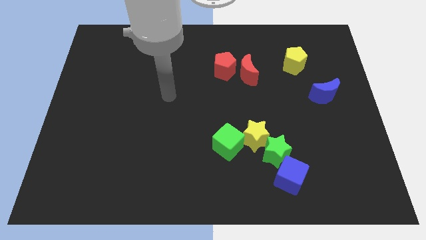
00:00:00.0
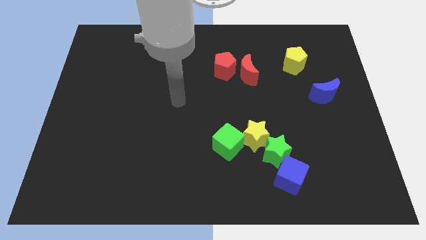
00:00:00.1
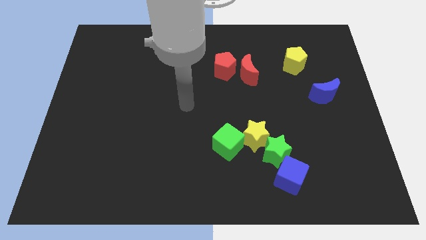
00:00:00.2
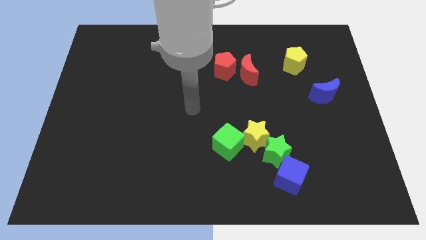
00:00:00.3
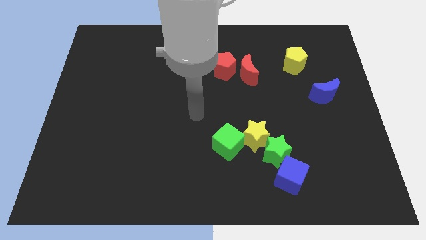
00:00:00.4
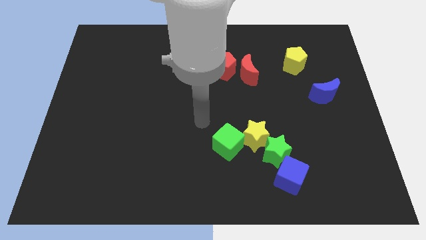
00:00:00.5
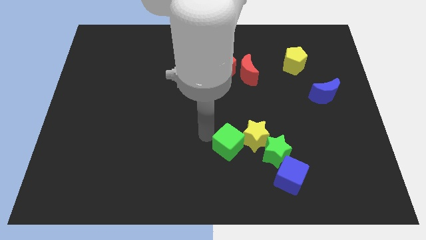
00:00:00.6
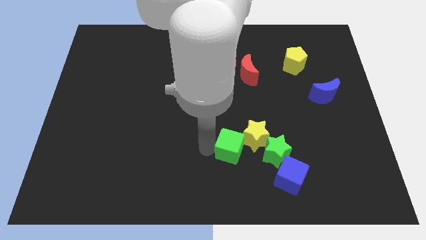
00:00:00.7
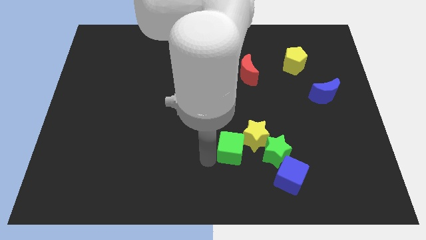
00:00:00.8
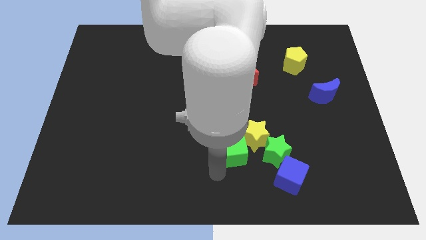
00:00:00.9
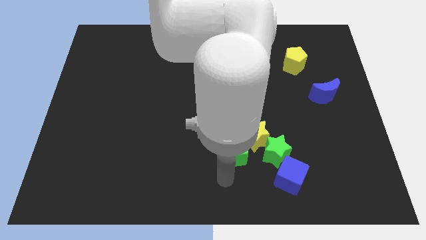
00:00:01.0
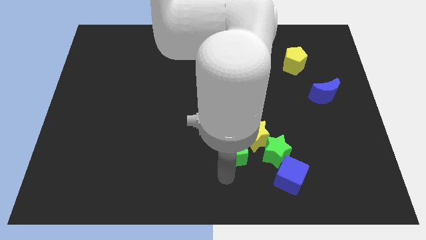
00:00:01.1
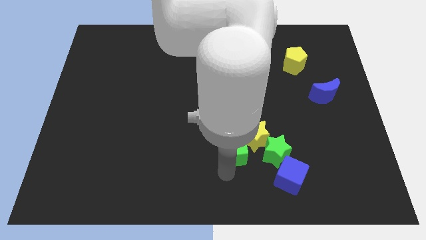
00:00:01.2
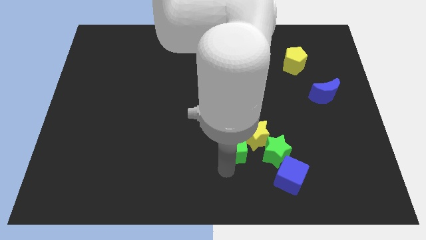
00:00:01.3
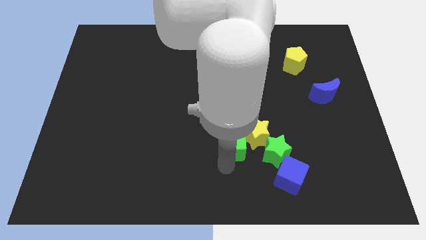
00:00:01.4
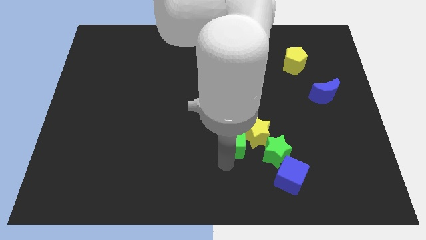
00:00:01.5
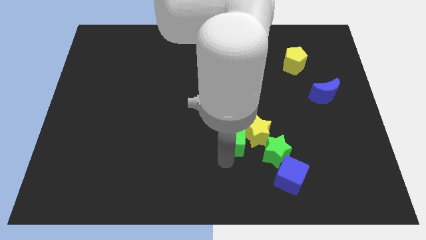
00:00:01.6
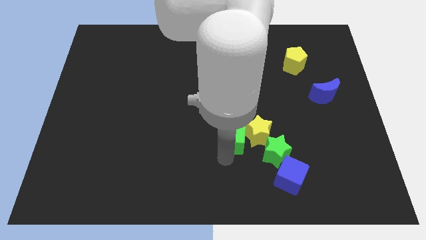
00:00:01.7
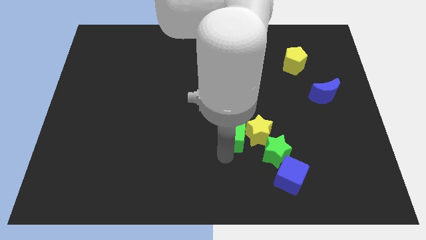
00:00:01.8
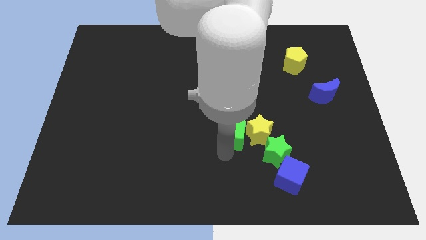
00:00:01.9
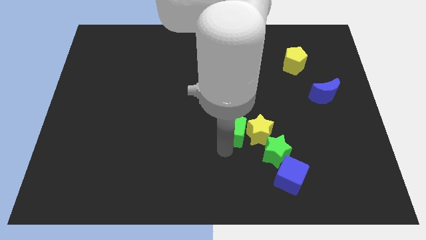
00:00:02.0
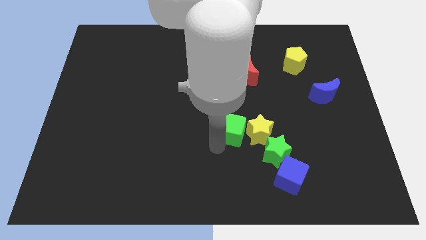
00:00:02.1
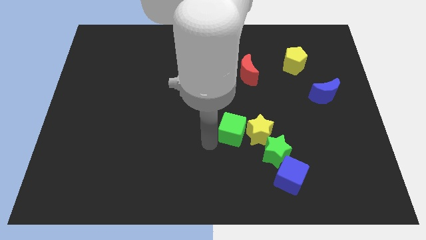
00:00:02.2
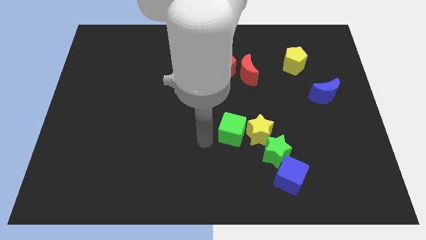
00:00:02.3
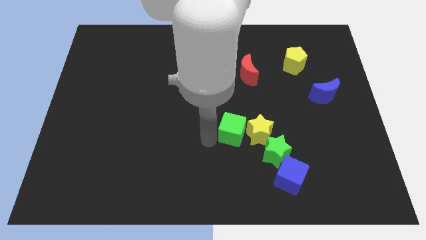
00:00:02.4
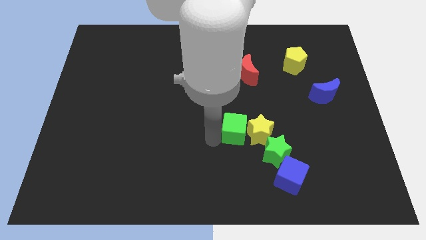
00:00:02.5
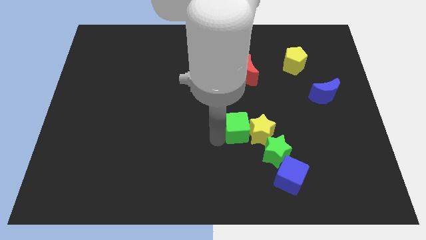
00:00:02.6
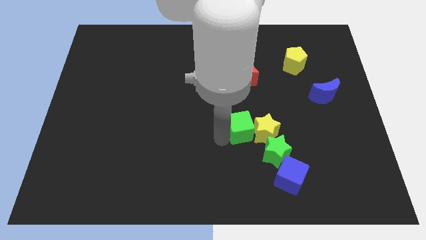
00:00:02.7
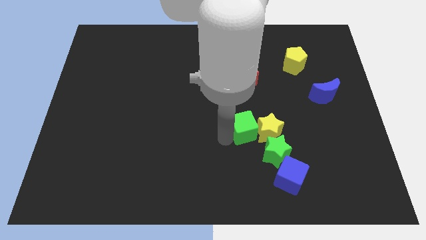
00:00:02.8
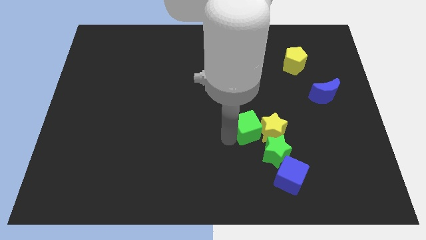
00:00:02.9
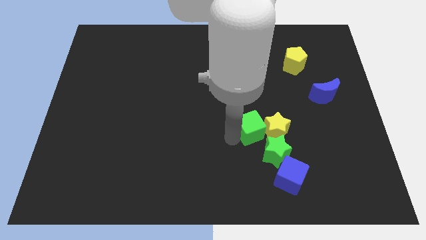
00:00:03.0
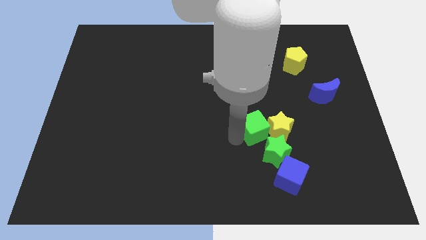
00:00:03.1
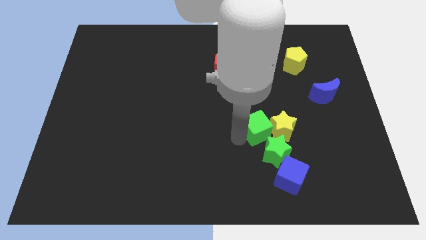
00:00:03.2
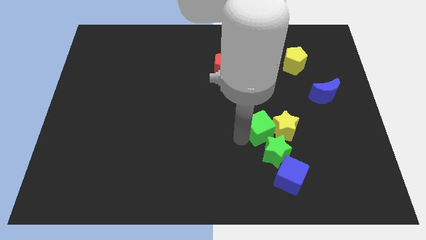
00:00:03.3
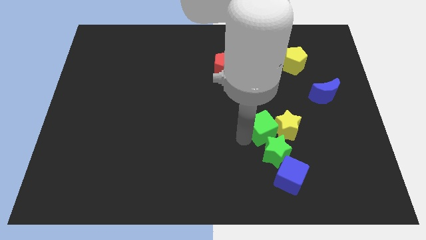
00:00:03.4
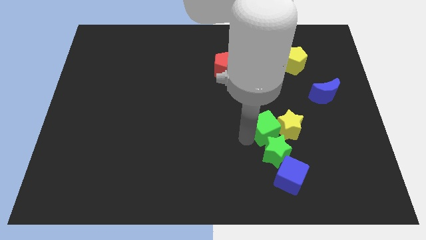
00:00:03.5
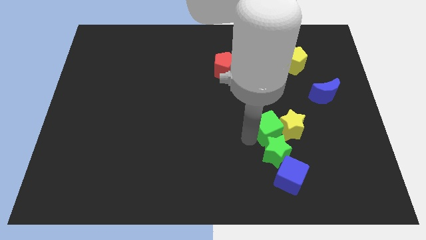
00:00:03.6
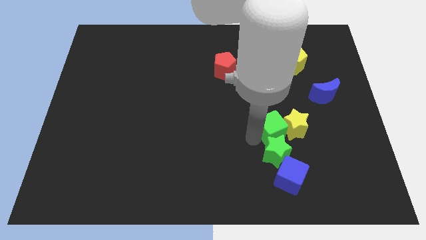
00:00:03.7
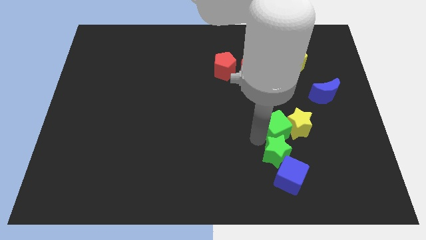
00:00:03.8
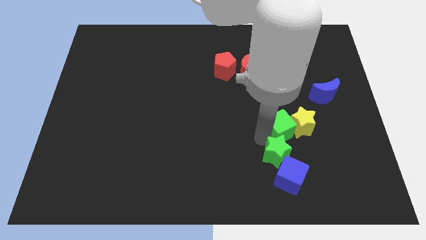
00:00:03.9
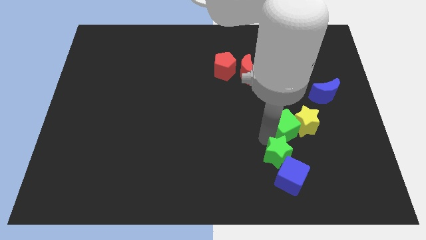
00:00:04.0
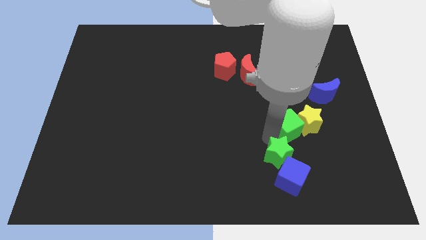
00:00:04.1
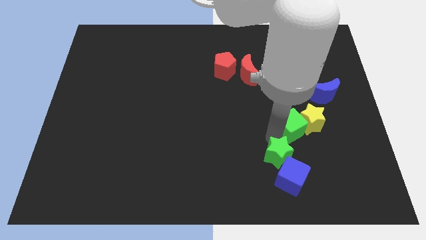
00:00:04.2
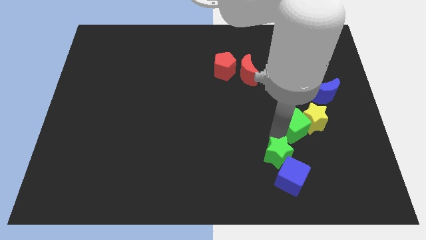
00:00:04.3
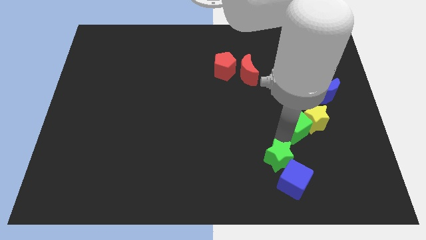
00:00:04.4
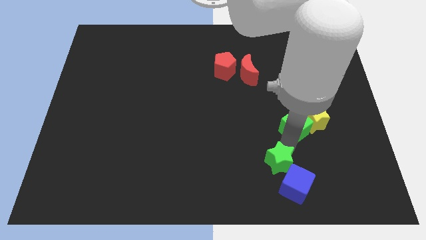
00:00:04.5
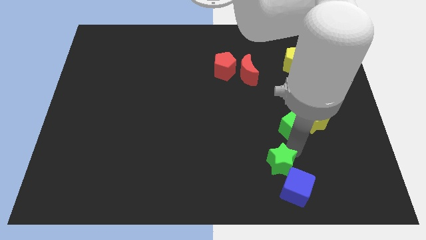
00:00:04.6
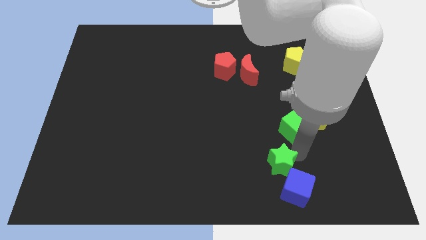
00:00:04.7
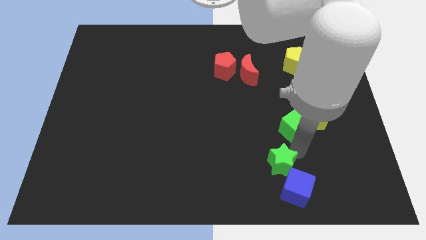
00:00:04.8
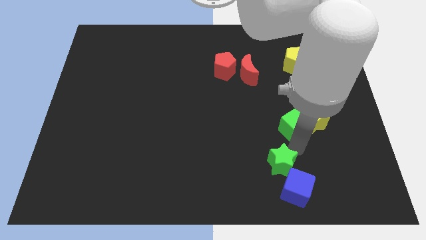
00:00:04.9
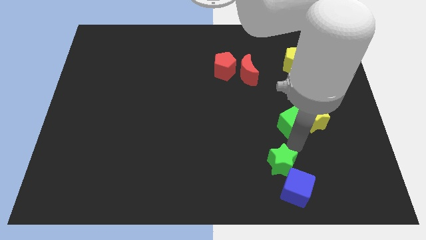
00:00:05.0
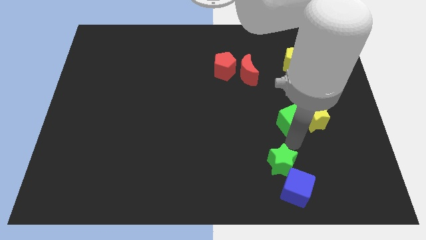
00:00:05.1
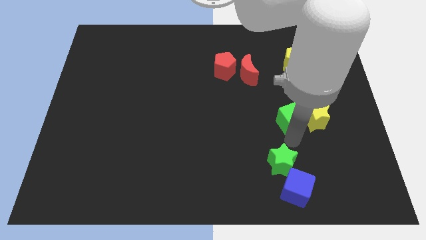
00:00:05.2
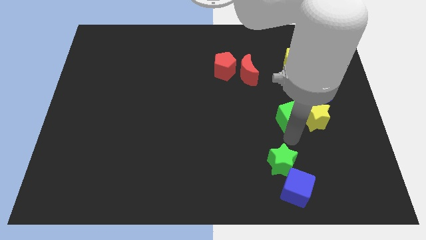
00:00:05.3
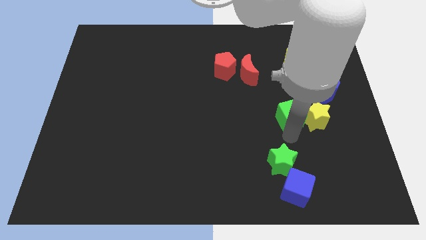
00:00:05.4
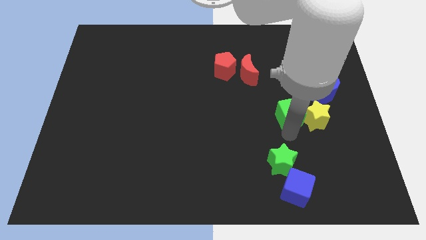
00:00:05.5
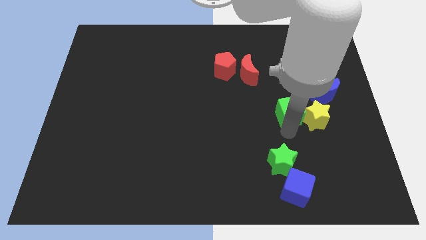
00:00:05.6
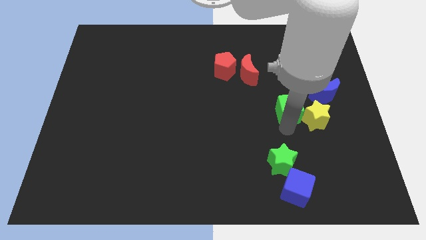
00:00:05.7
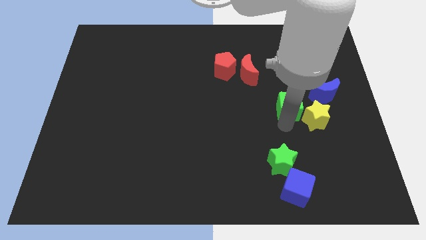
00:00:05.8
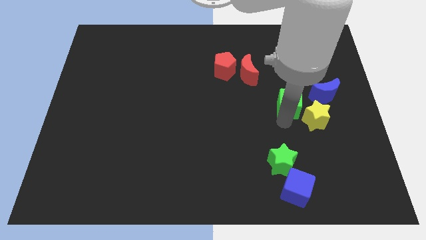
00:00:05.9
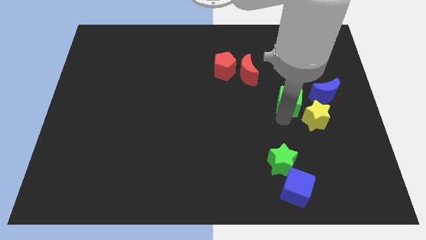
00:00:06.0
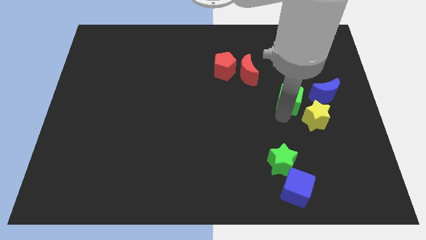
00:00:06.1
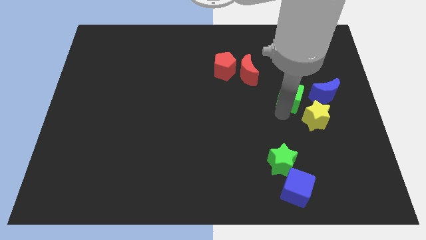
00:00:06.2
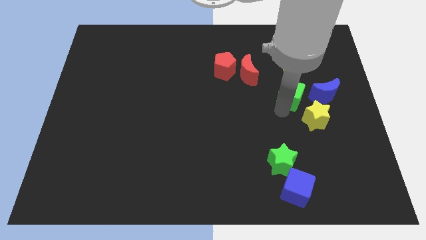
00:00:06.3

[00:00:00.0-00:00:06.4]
push the green cube diagonally up and to the right

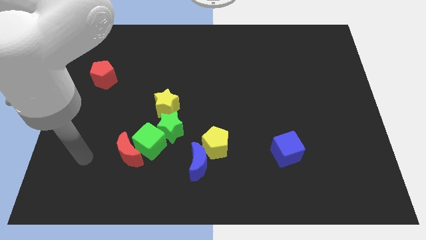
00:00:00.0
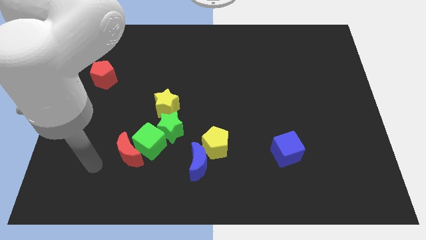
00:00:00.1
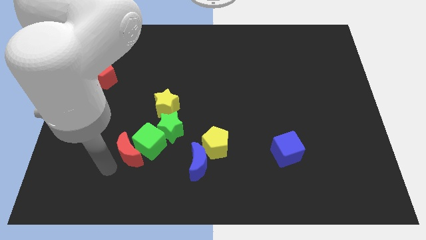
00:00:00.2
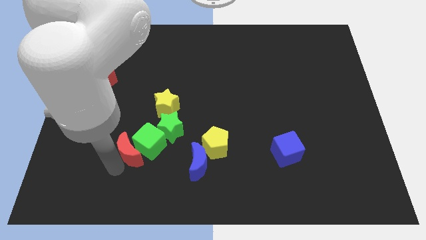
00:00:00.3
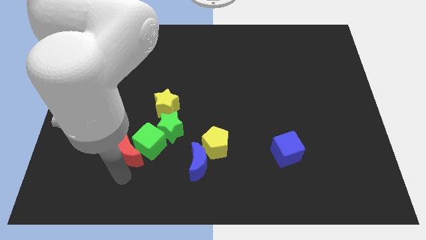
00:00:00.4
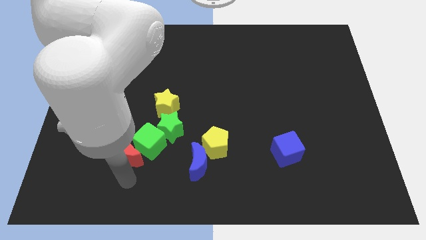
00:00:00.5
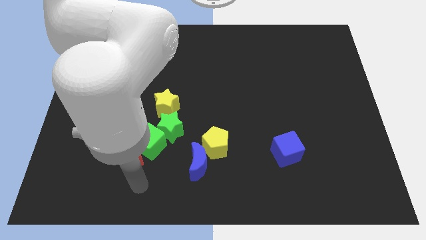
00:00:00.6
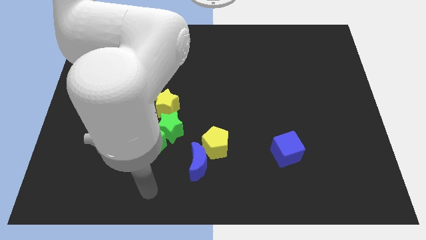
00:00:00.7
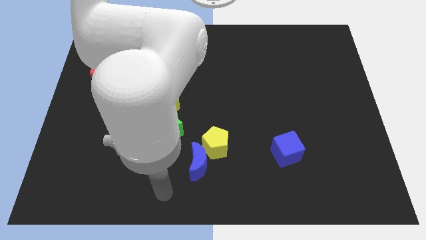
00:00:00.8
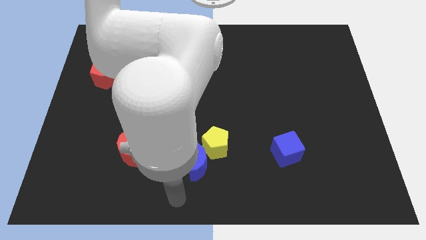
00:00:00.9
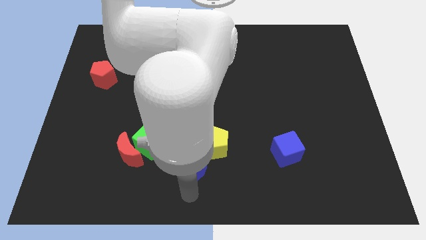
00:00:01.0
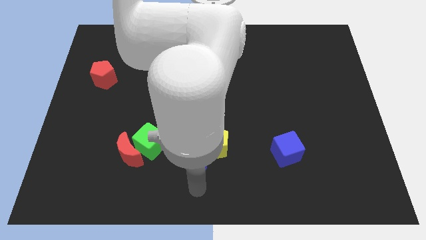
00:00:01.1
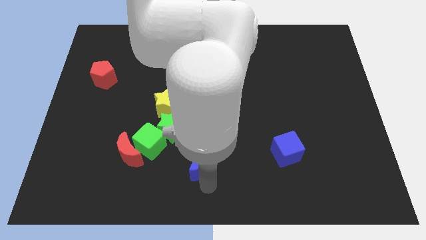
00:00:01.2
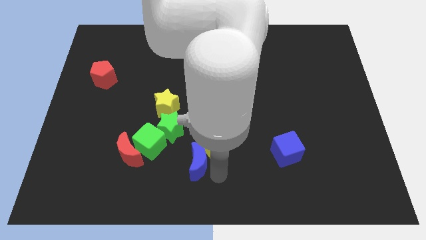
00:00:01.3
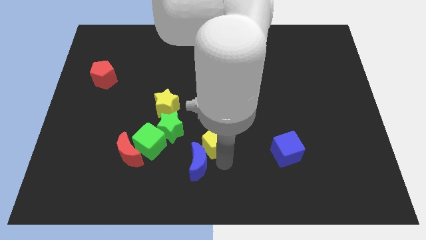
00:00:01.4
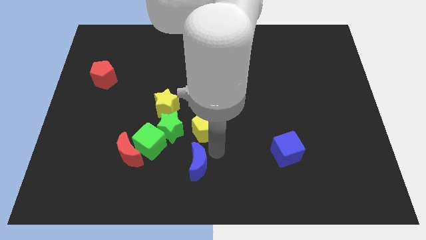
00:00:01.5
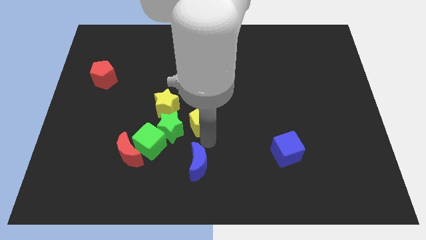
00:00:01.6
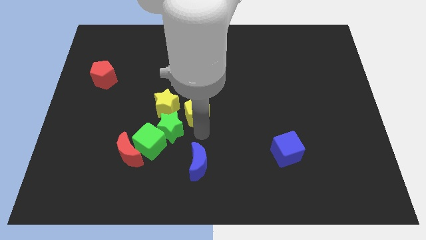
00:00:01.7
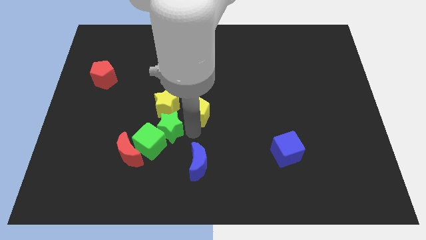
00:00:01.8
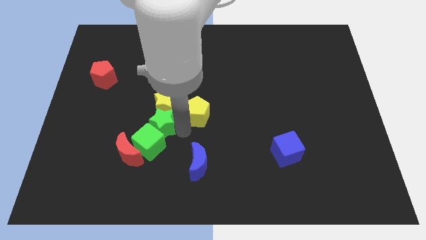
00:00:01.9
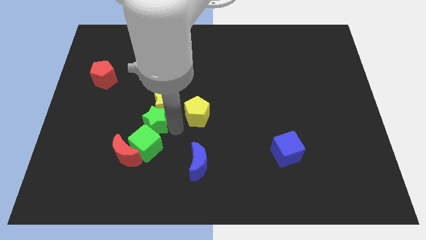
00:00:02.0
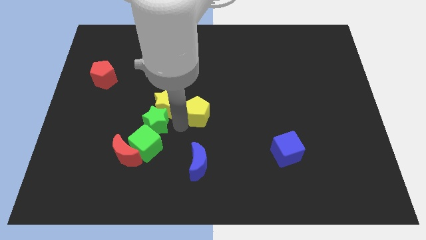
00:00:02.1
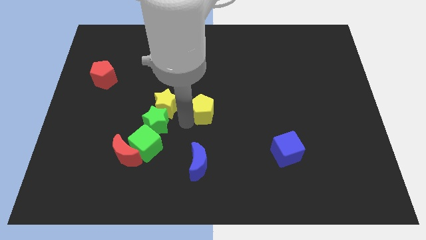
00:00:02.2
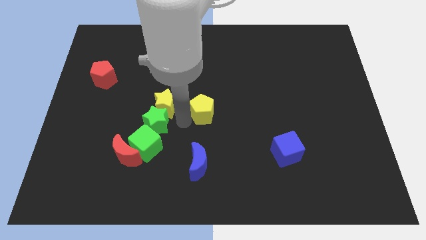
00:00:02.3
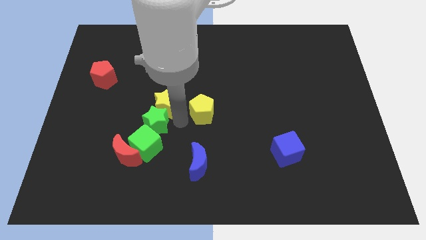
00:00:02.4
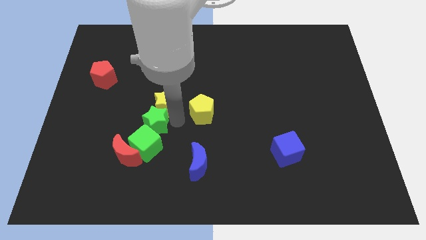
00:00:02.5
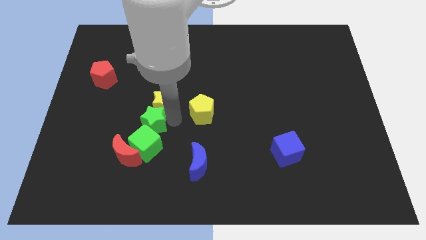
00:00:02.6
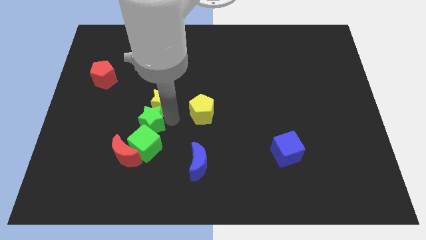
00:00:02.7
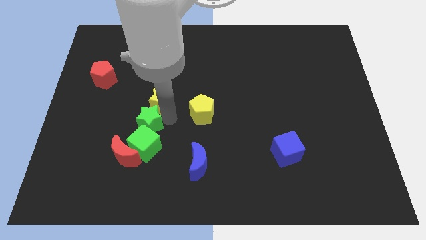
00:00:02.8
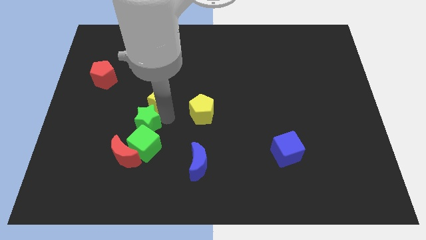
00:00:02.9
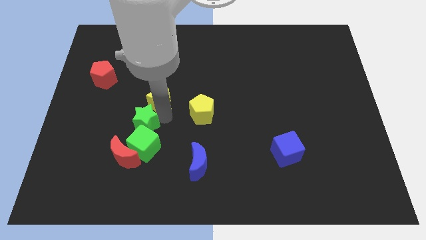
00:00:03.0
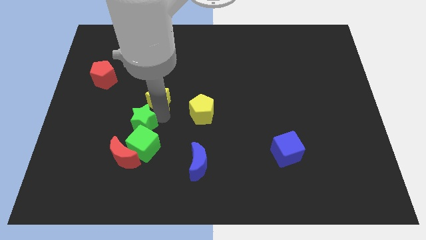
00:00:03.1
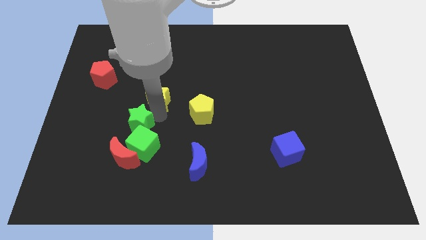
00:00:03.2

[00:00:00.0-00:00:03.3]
push the green star left somewhat
